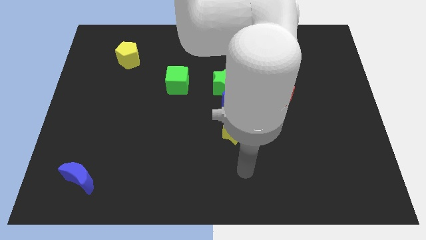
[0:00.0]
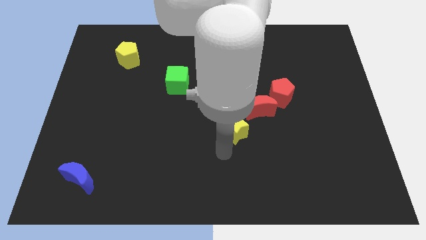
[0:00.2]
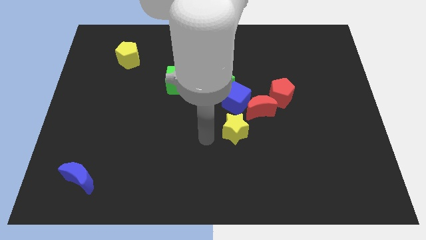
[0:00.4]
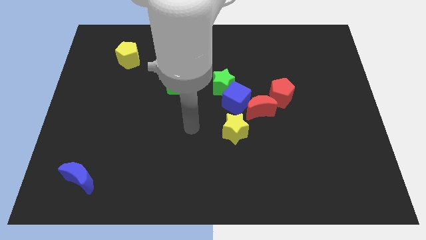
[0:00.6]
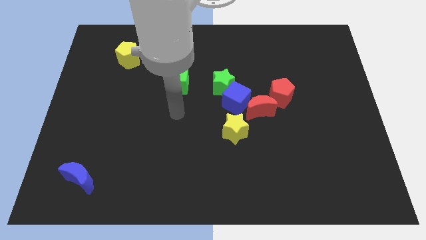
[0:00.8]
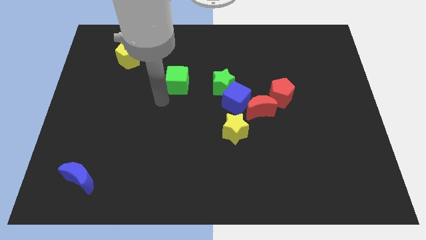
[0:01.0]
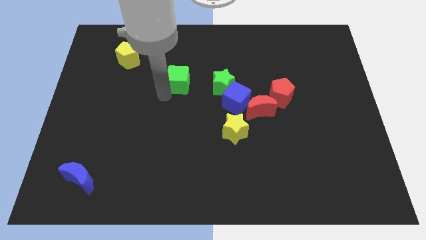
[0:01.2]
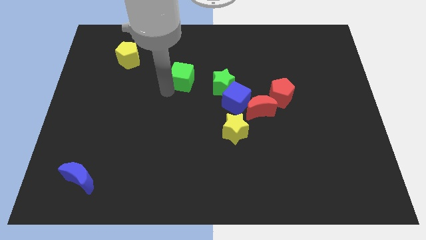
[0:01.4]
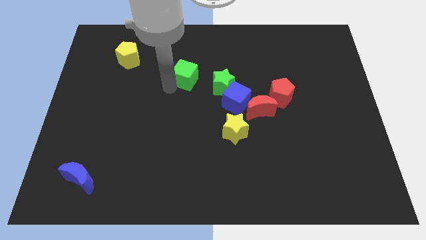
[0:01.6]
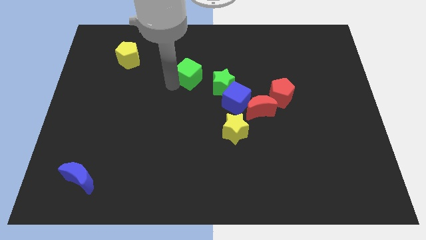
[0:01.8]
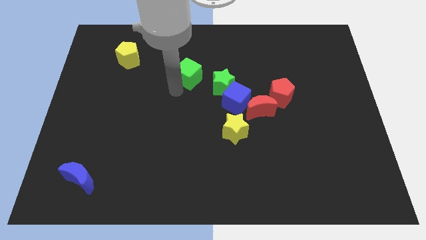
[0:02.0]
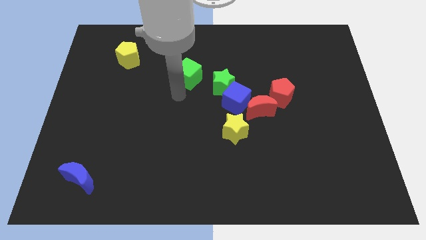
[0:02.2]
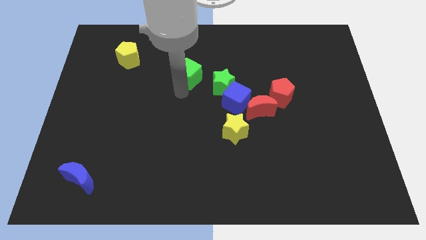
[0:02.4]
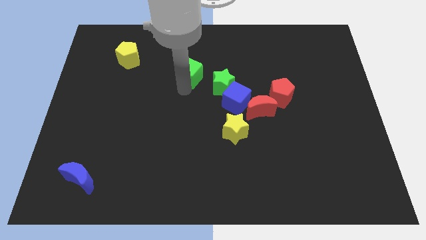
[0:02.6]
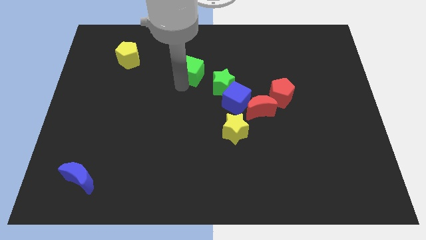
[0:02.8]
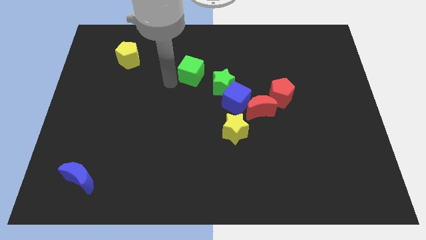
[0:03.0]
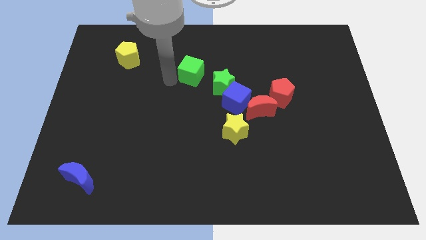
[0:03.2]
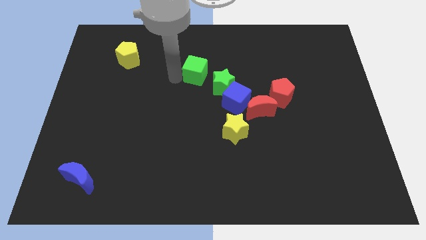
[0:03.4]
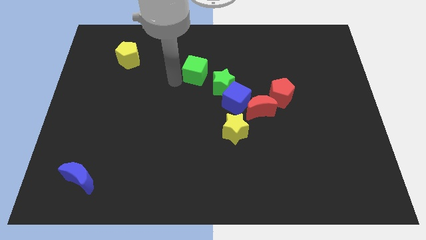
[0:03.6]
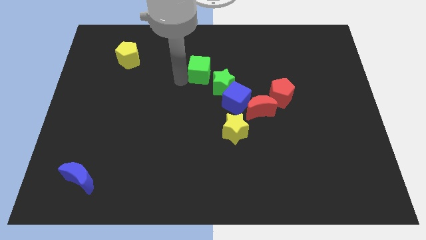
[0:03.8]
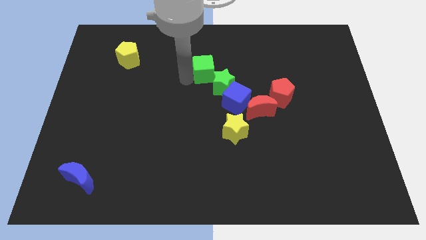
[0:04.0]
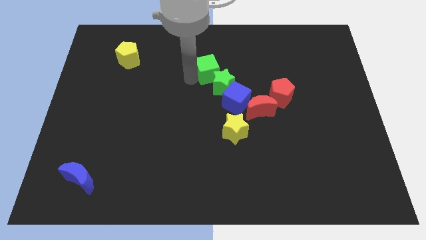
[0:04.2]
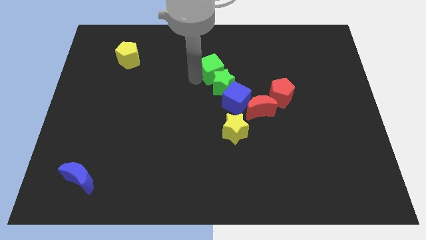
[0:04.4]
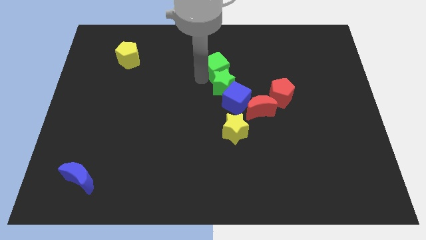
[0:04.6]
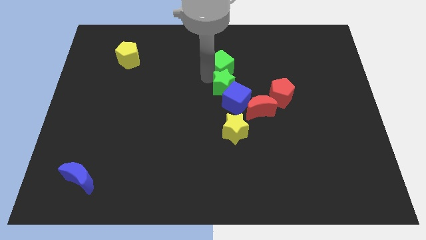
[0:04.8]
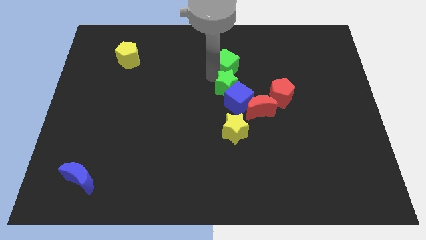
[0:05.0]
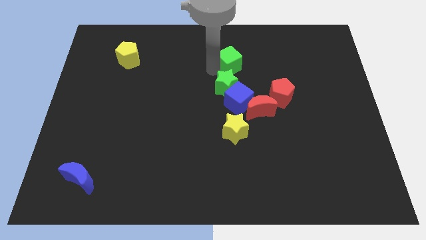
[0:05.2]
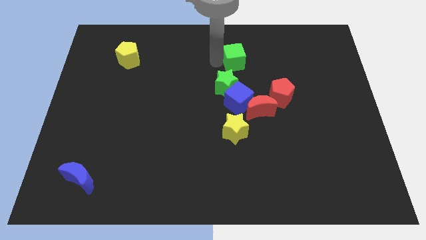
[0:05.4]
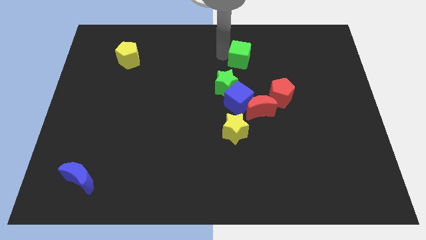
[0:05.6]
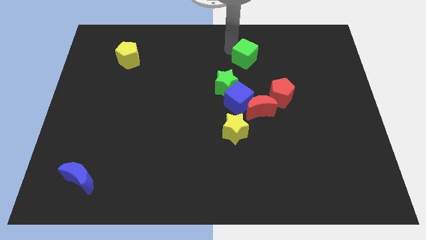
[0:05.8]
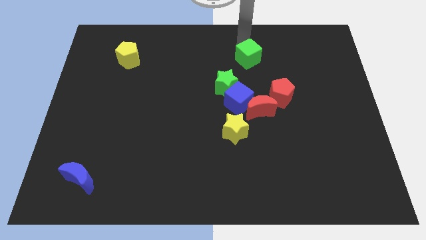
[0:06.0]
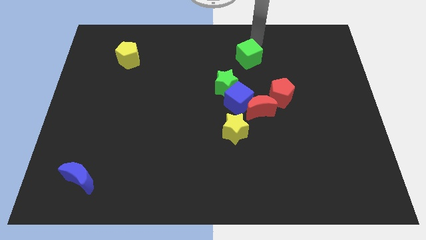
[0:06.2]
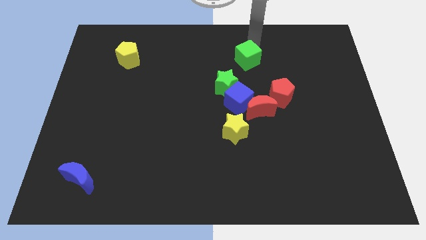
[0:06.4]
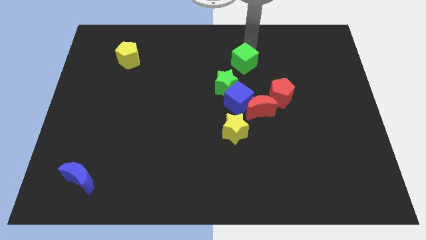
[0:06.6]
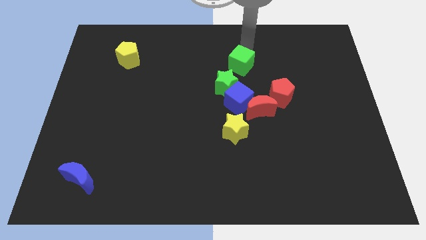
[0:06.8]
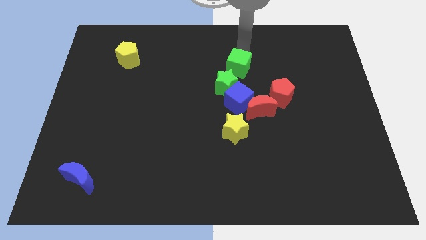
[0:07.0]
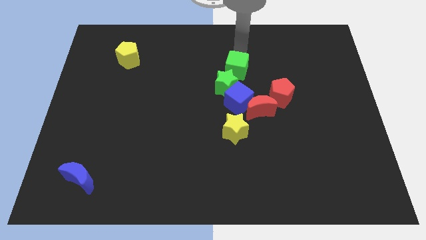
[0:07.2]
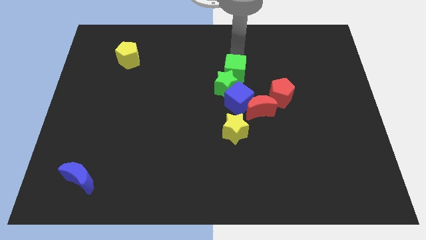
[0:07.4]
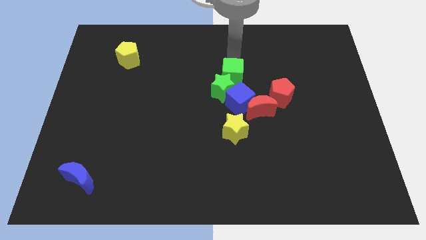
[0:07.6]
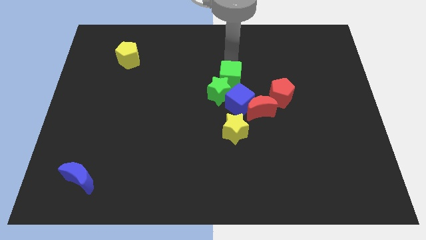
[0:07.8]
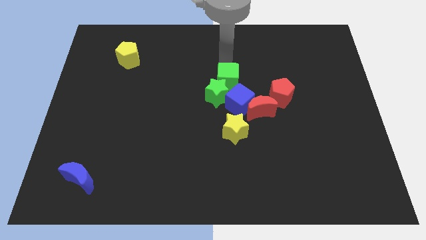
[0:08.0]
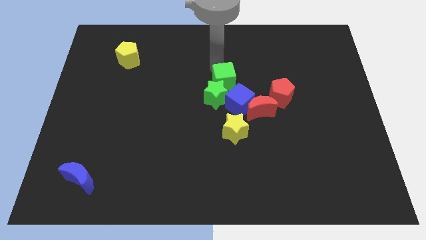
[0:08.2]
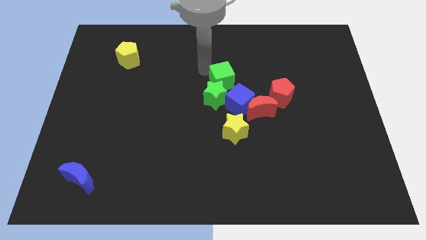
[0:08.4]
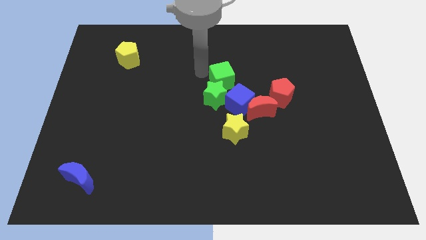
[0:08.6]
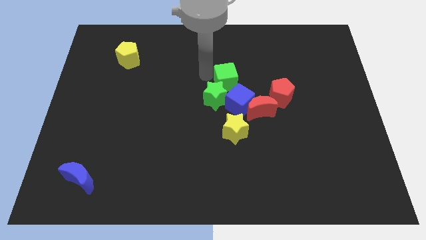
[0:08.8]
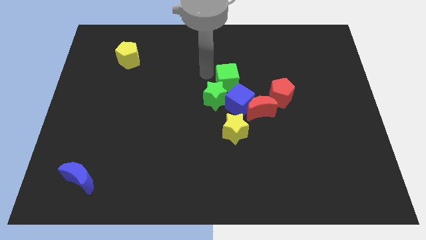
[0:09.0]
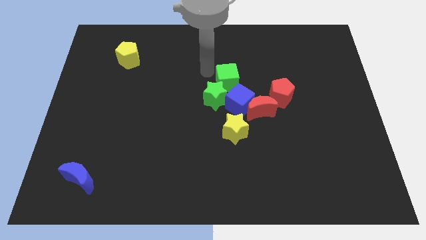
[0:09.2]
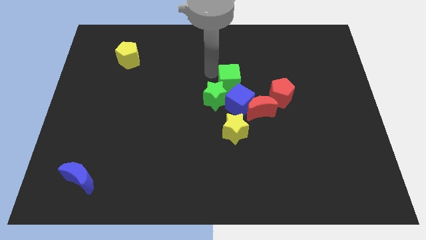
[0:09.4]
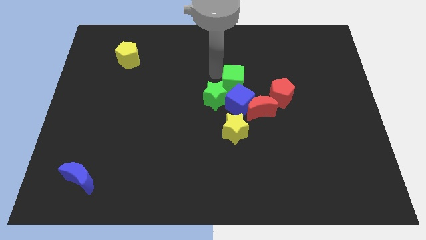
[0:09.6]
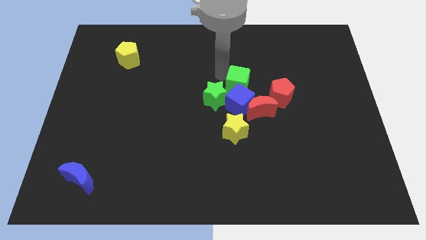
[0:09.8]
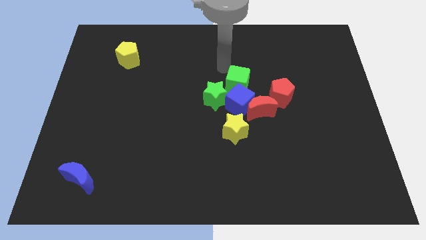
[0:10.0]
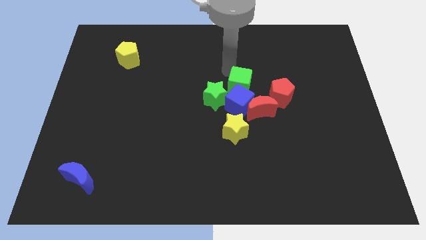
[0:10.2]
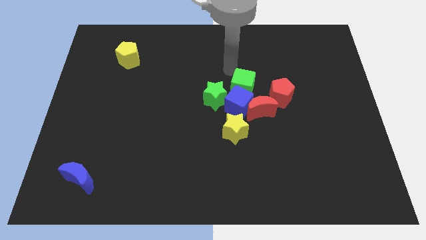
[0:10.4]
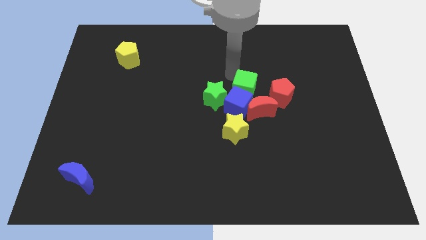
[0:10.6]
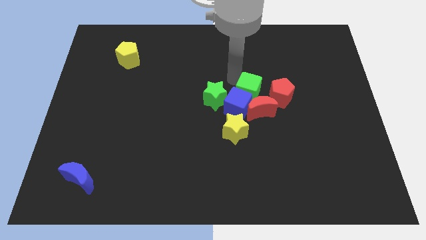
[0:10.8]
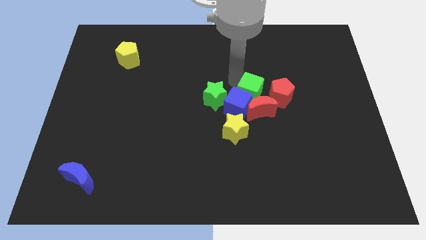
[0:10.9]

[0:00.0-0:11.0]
move the green cube to the red moon

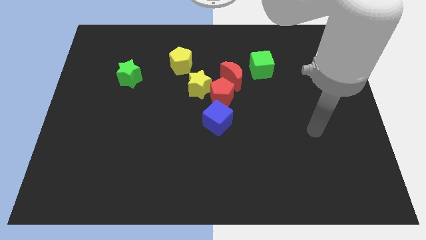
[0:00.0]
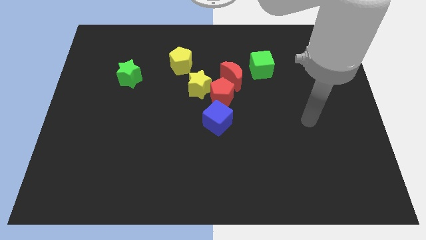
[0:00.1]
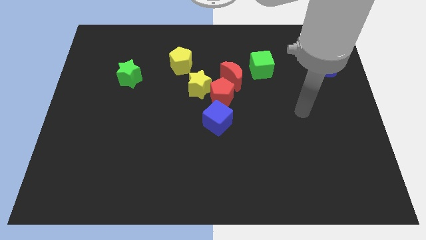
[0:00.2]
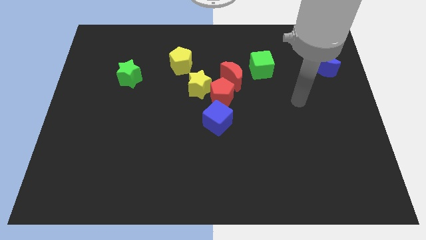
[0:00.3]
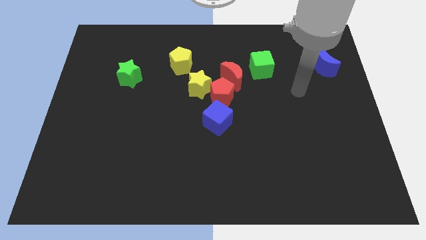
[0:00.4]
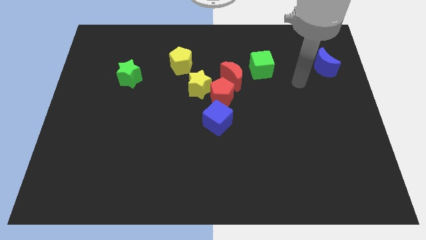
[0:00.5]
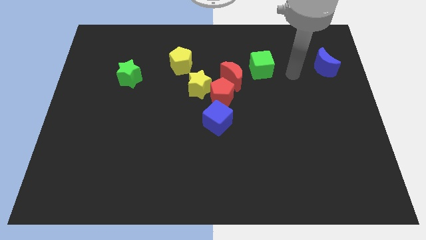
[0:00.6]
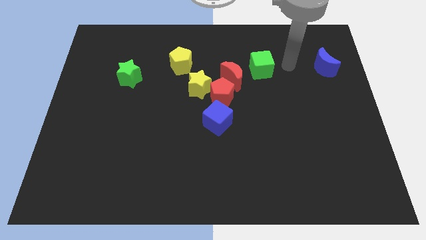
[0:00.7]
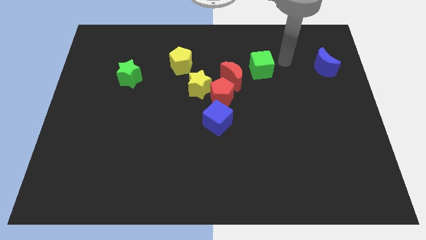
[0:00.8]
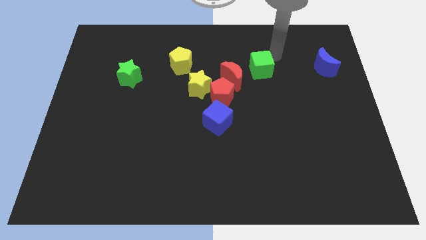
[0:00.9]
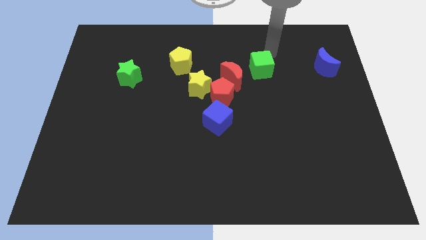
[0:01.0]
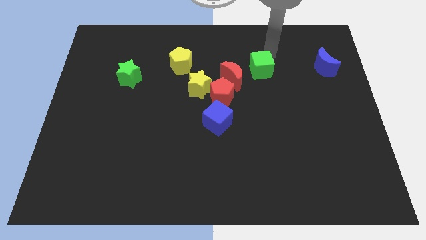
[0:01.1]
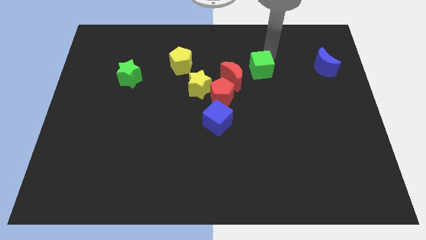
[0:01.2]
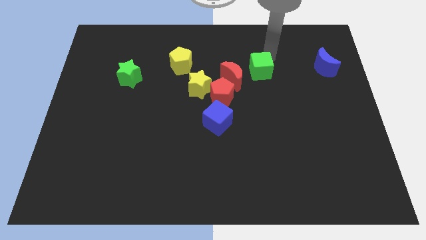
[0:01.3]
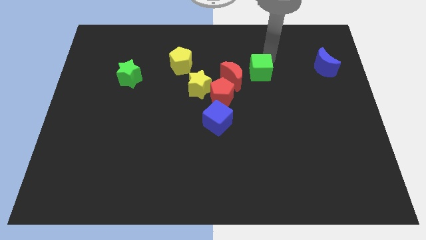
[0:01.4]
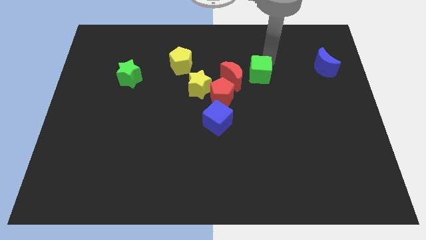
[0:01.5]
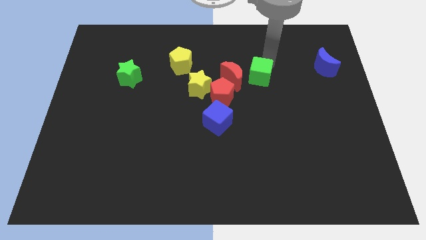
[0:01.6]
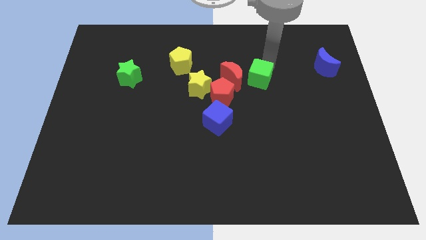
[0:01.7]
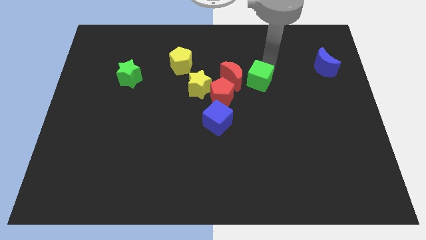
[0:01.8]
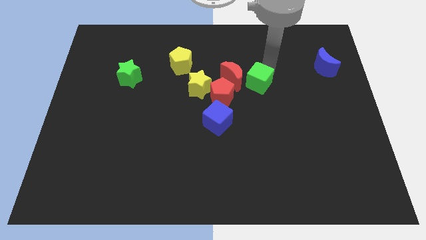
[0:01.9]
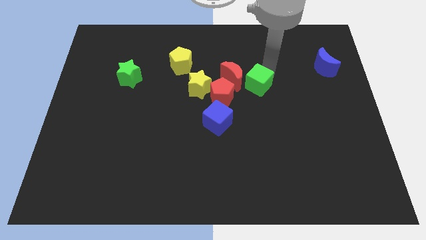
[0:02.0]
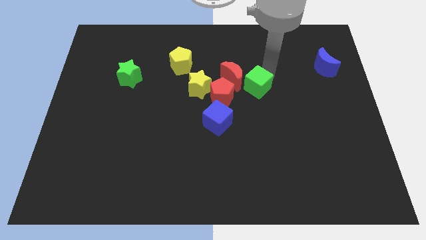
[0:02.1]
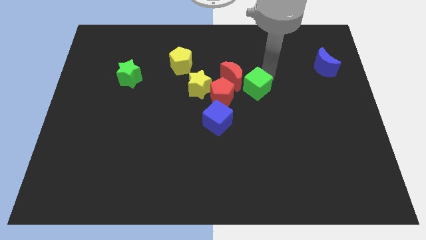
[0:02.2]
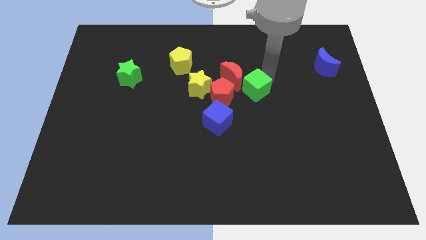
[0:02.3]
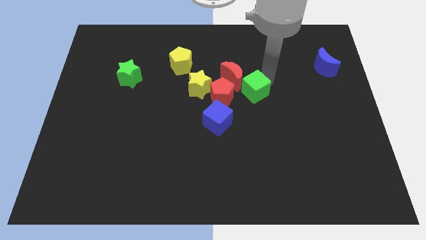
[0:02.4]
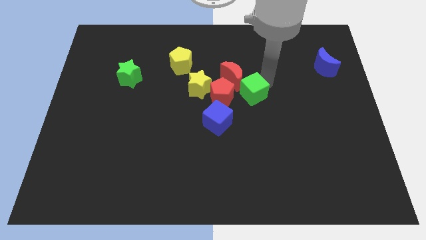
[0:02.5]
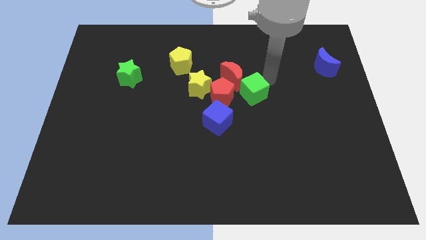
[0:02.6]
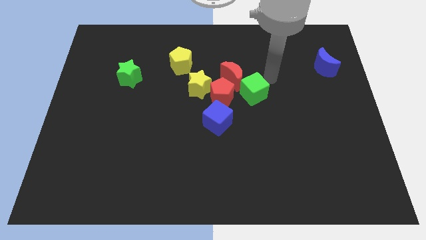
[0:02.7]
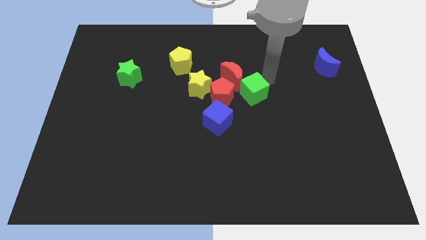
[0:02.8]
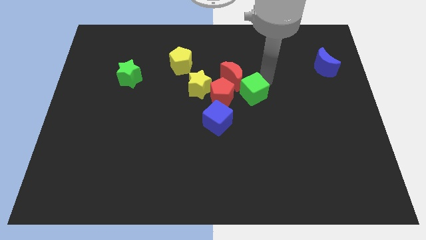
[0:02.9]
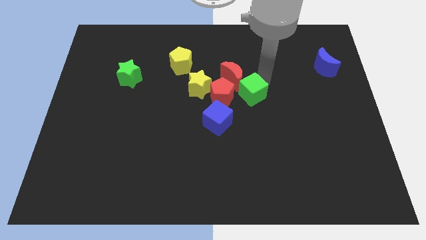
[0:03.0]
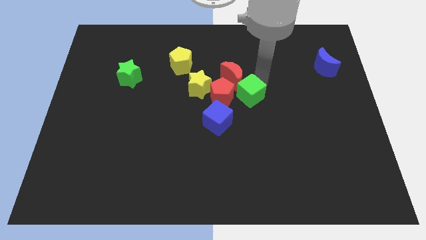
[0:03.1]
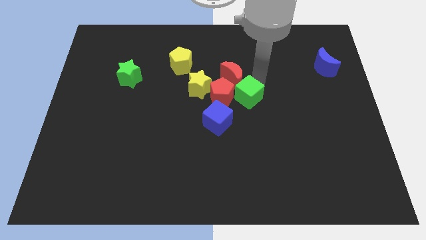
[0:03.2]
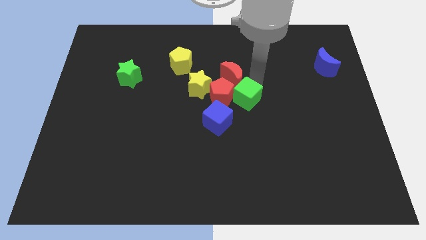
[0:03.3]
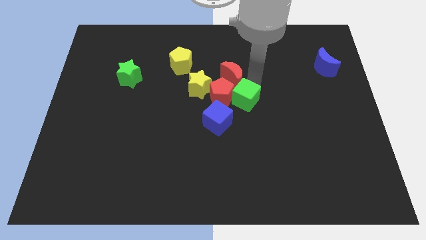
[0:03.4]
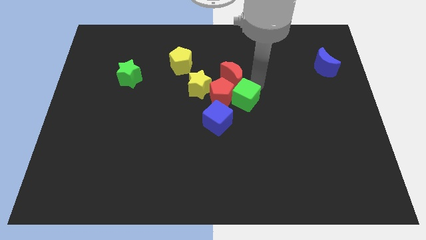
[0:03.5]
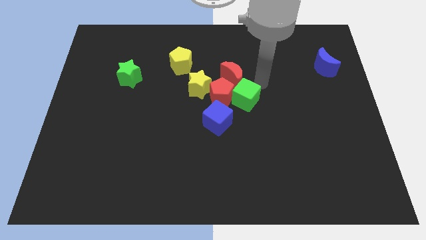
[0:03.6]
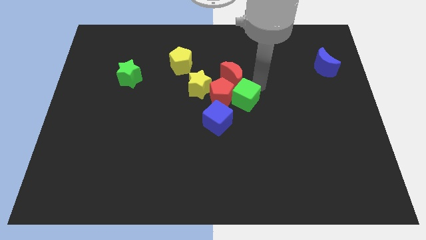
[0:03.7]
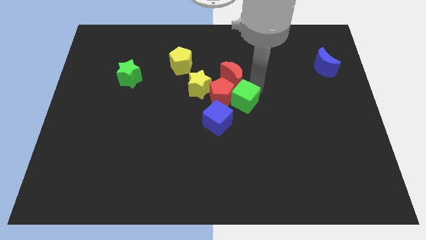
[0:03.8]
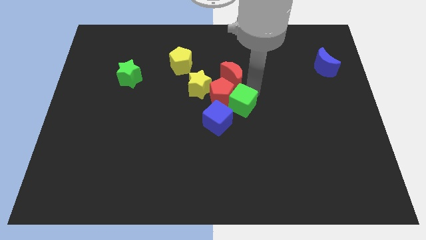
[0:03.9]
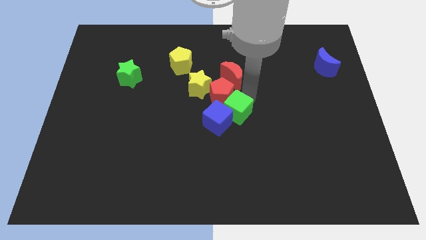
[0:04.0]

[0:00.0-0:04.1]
move the green cube next to the blue cube
